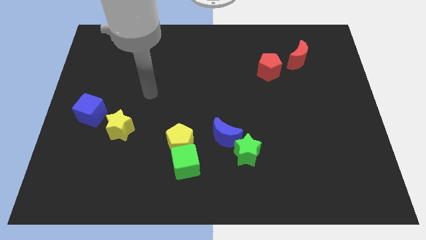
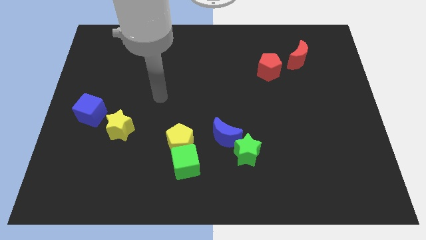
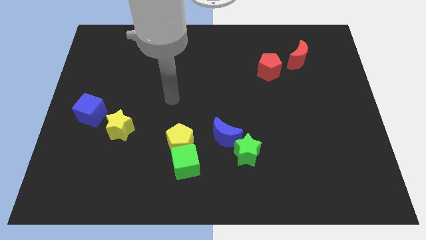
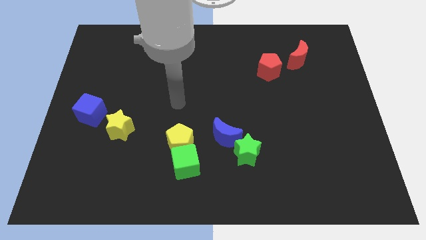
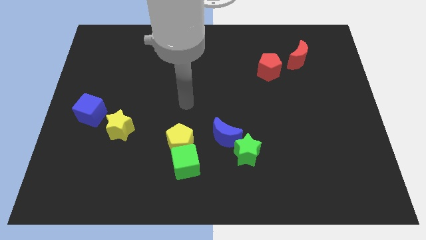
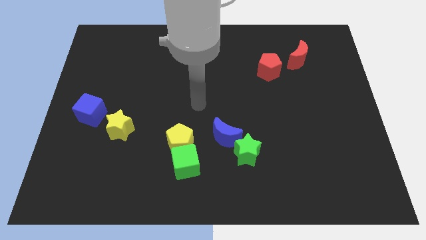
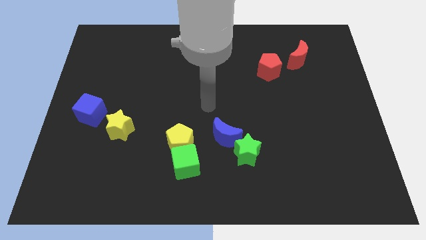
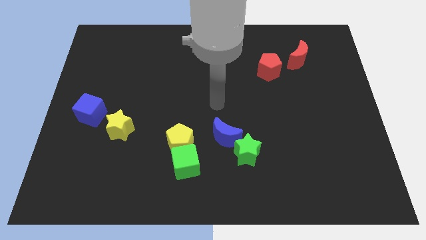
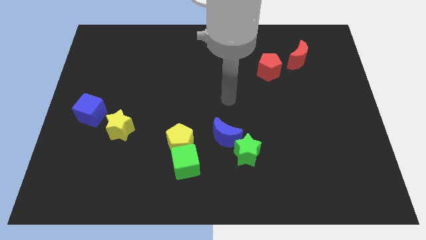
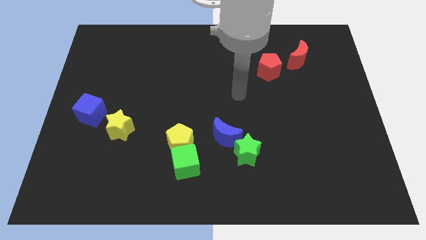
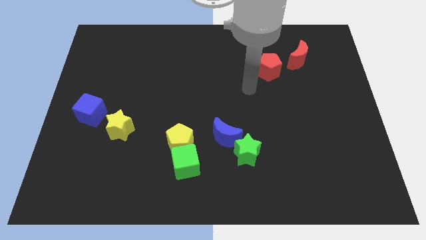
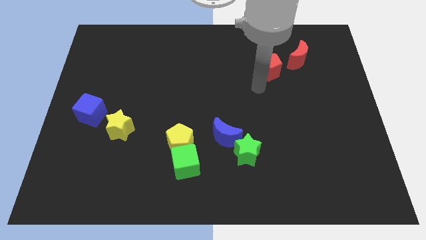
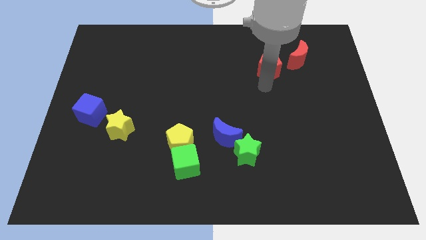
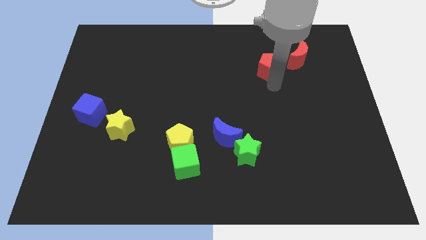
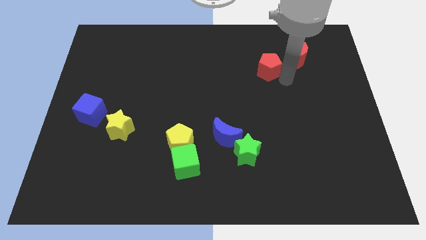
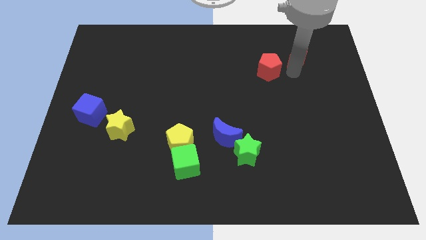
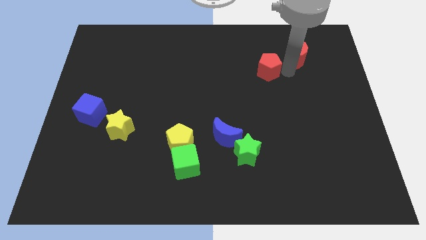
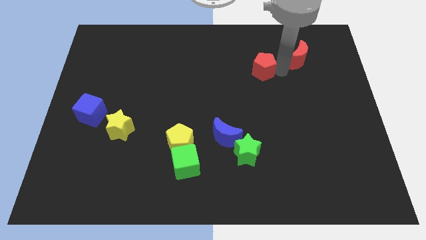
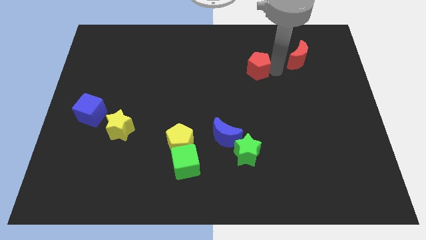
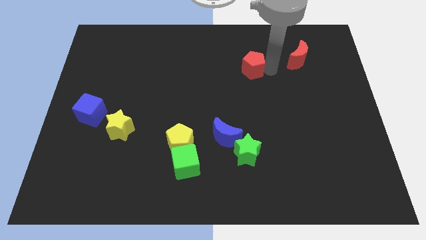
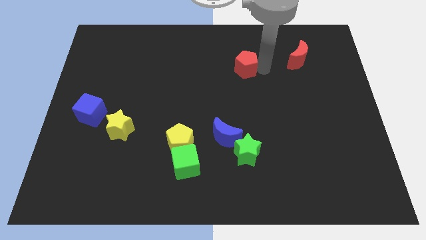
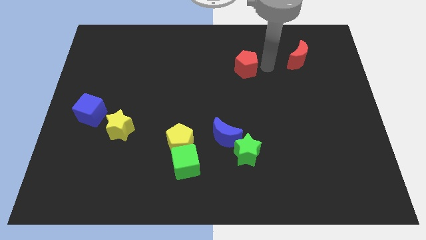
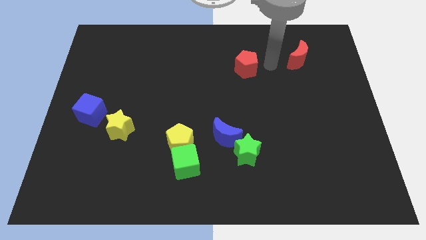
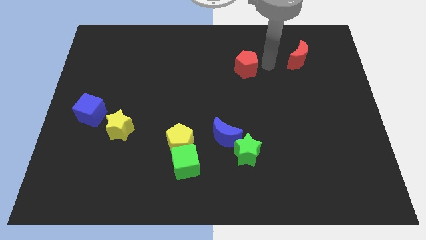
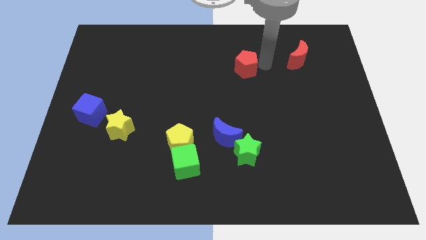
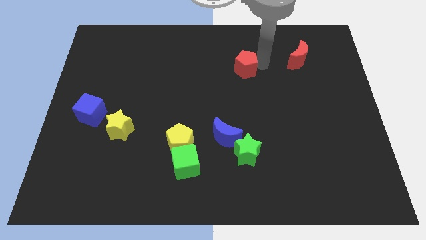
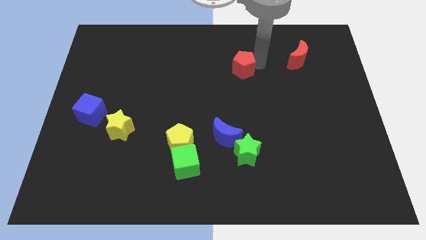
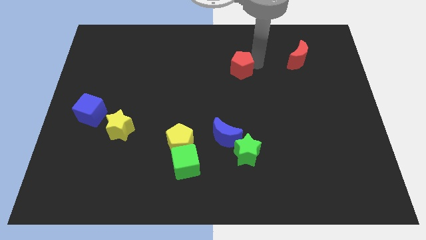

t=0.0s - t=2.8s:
push the red pentagon a bit to the left

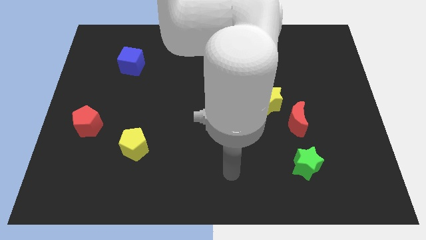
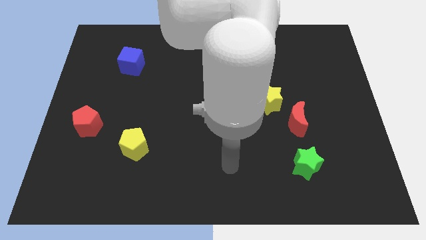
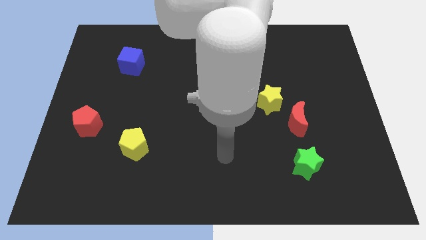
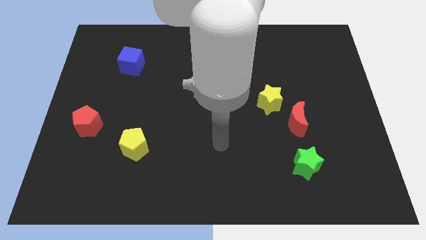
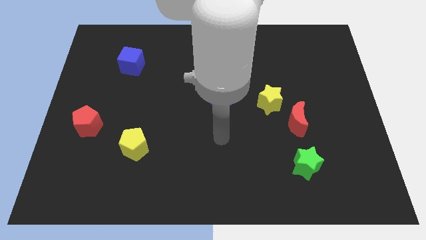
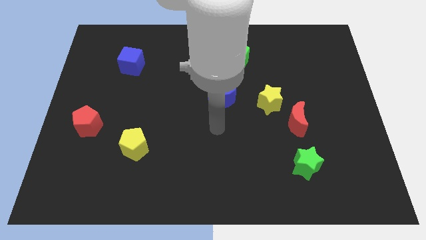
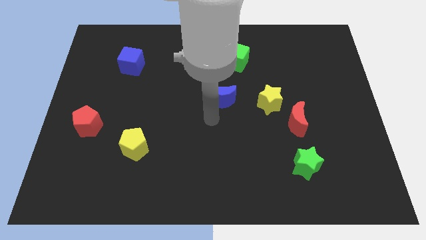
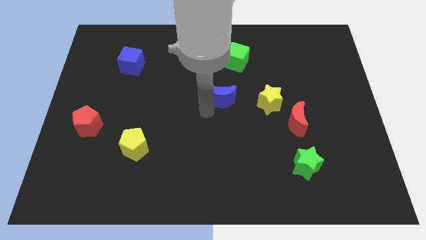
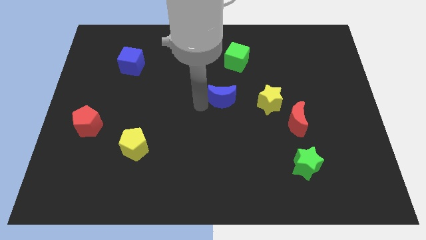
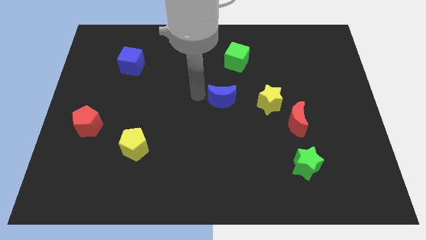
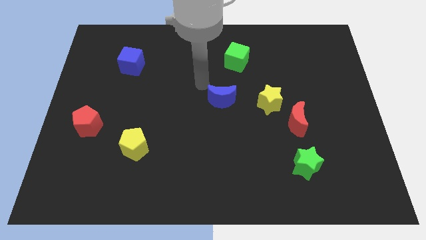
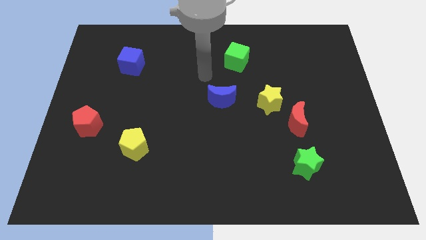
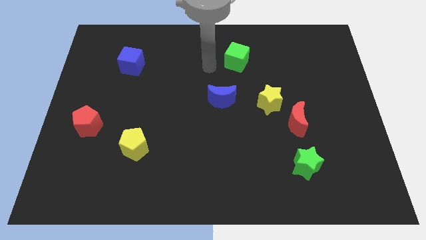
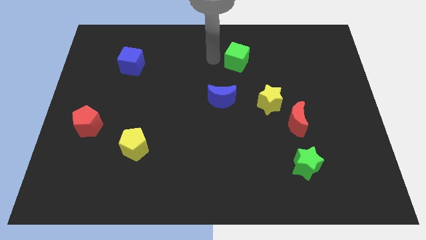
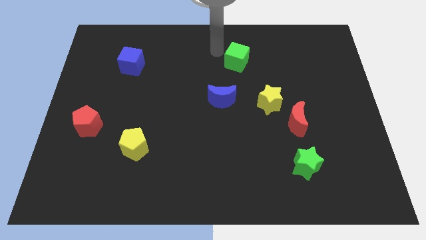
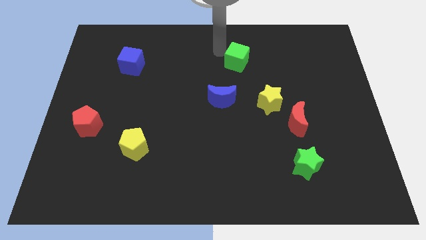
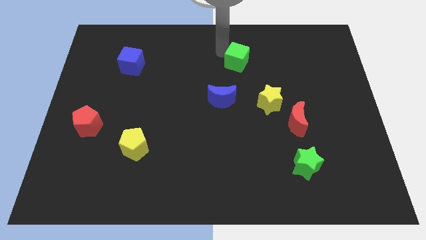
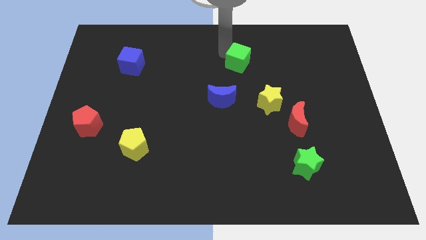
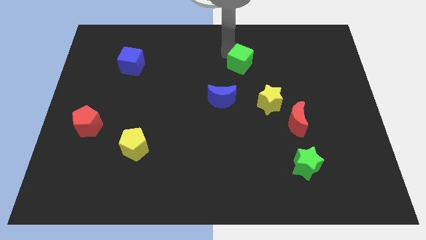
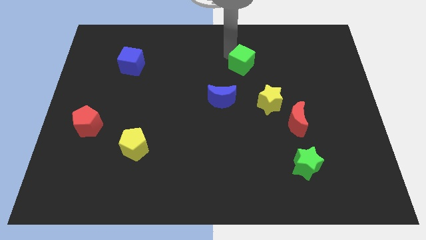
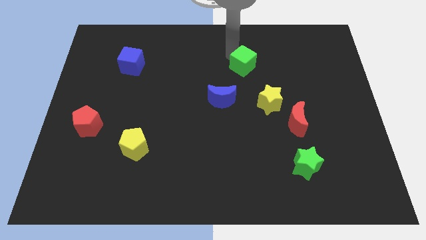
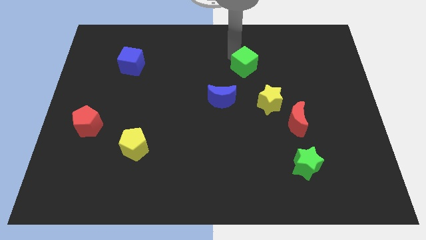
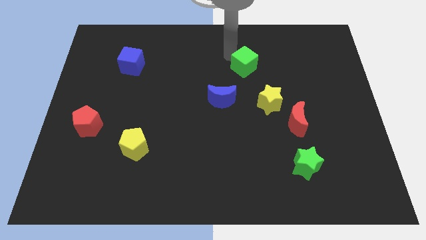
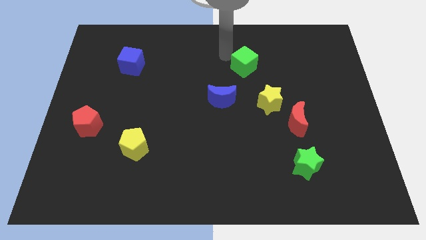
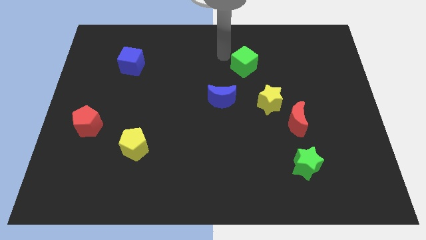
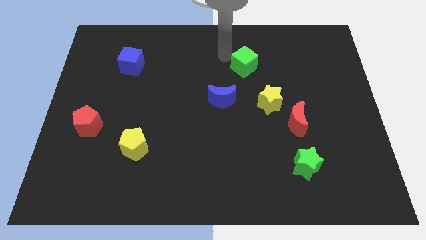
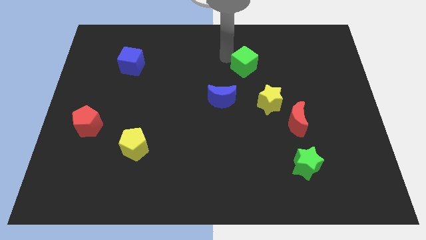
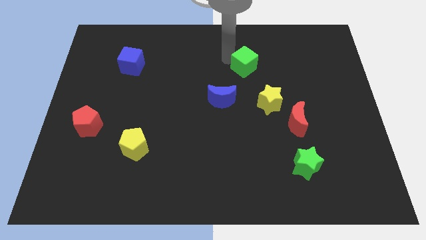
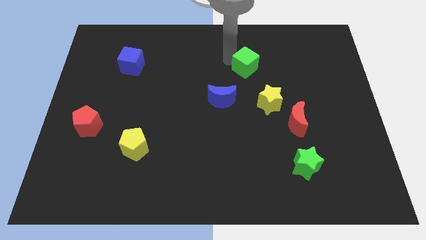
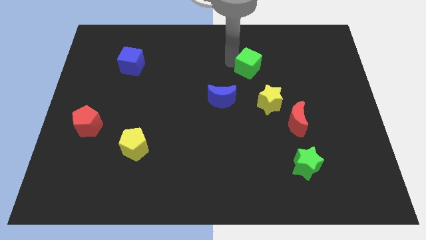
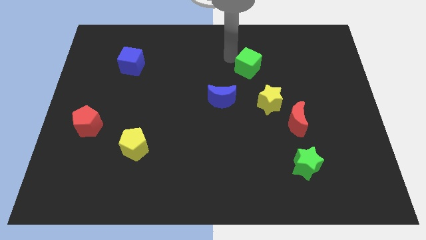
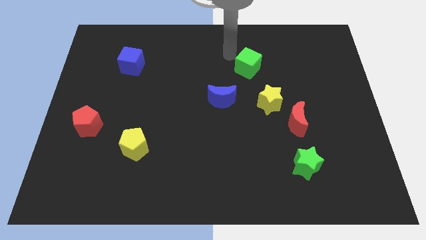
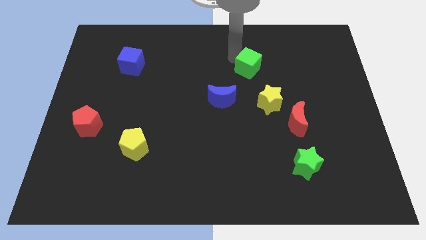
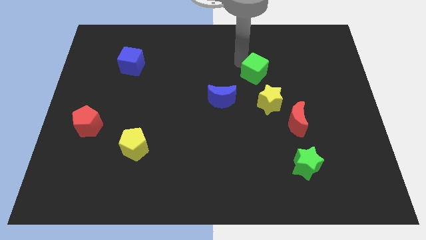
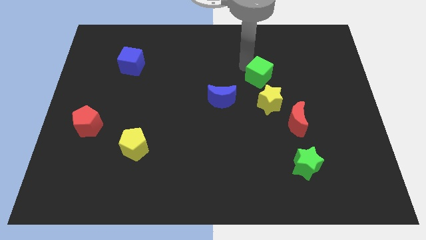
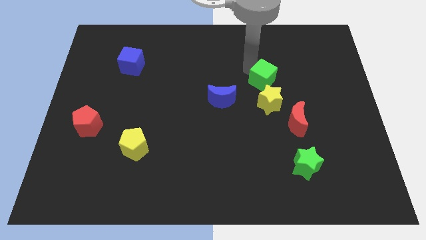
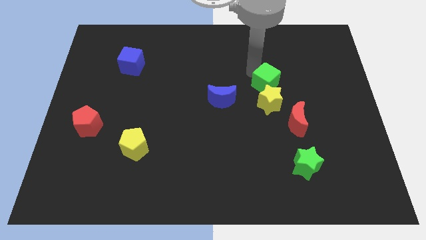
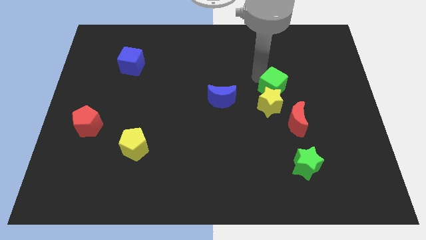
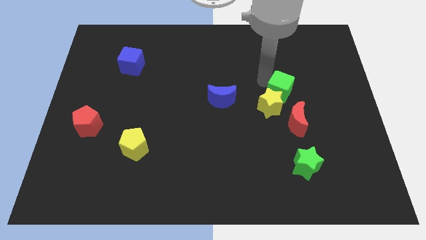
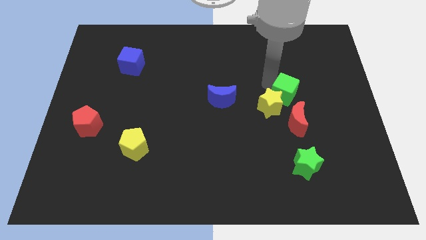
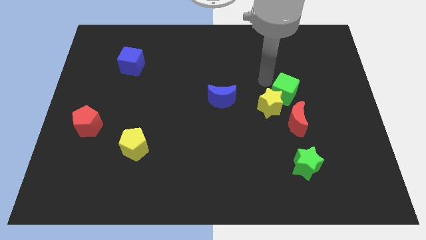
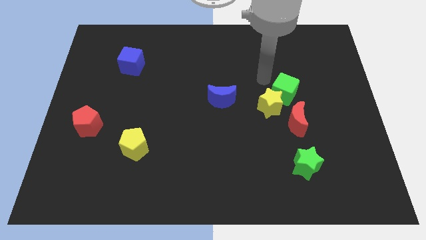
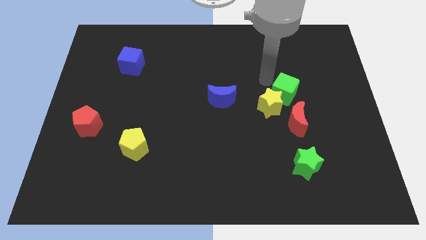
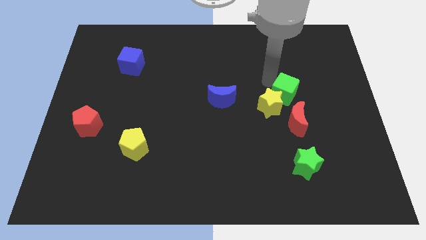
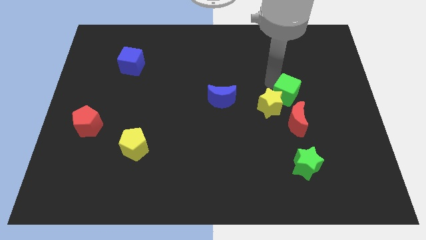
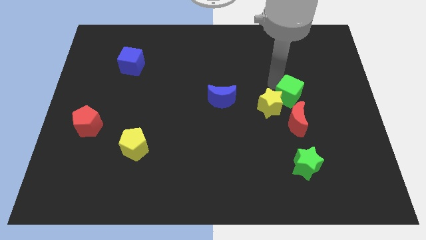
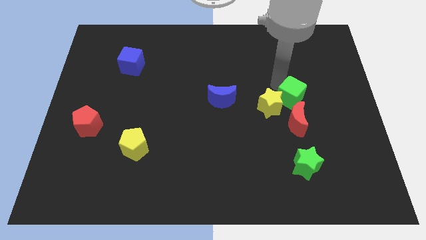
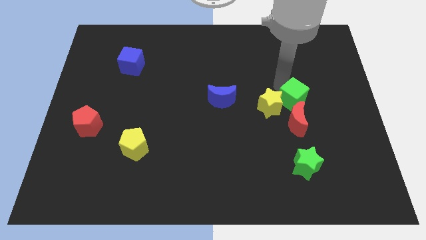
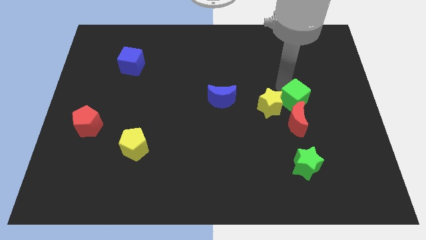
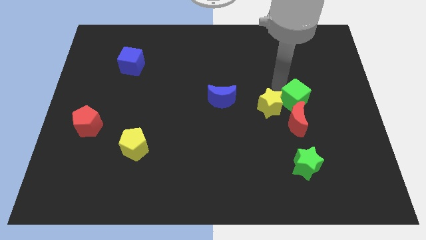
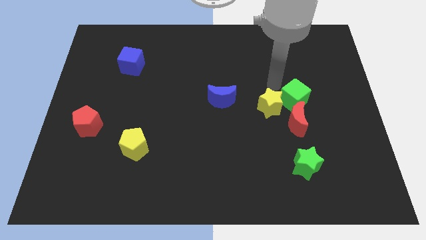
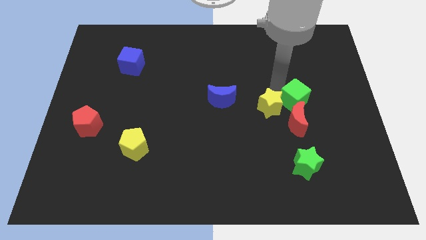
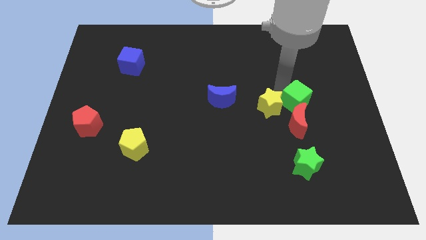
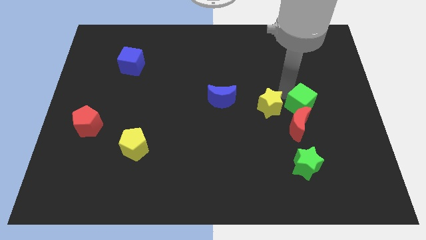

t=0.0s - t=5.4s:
slide the green cube down and then right
